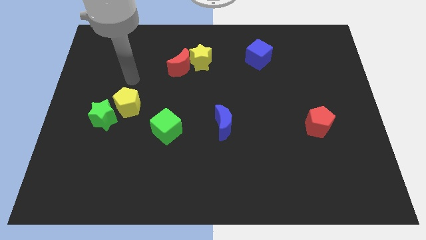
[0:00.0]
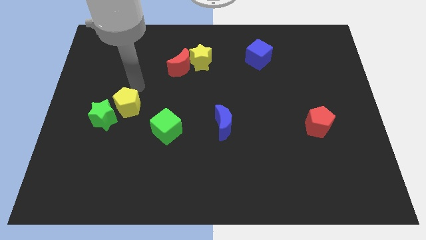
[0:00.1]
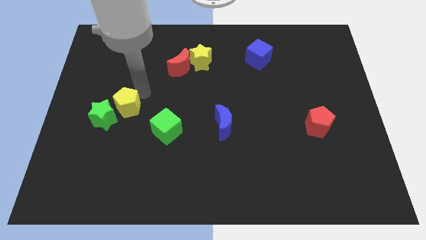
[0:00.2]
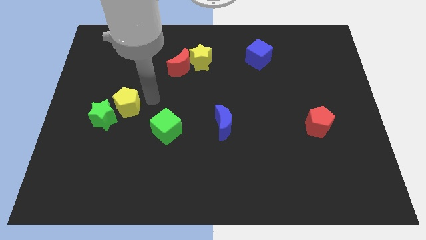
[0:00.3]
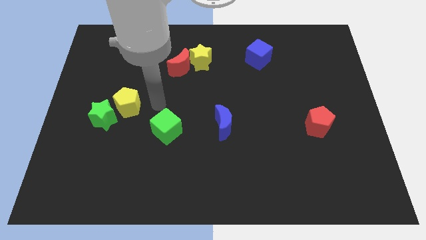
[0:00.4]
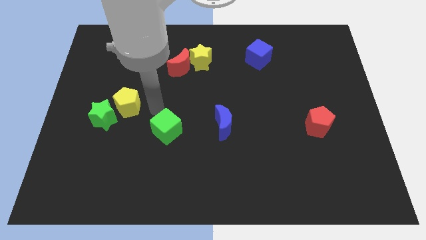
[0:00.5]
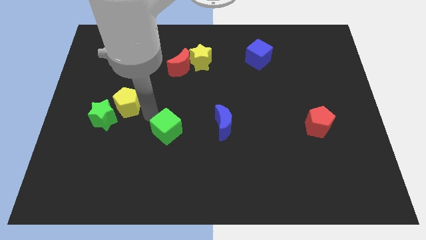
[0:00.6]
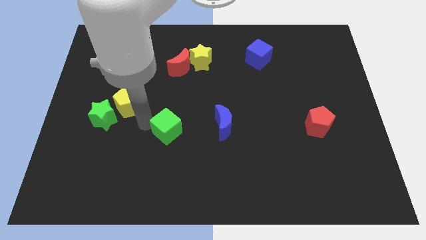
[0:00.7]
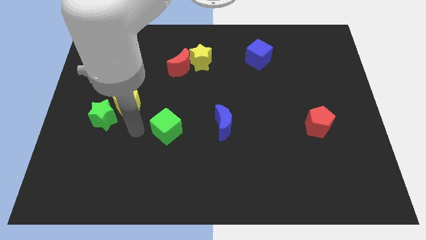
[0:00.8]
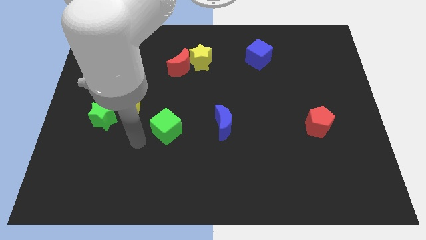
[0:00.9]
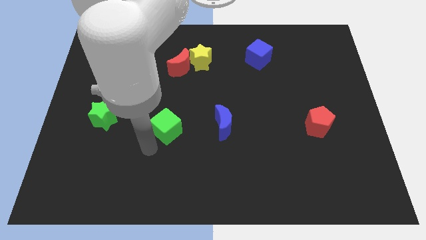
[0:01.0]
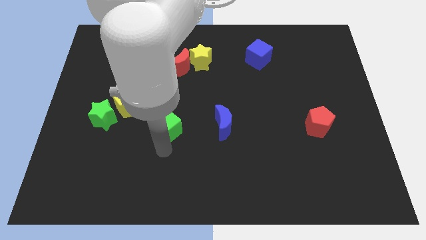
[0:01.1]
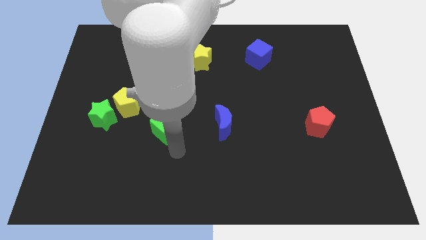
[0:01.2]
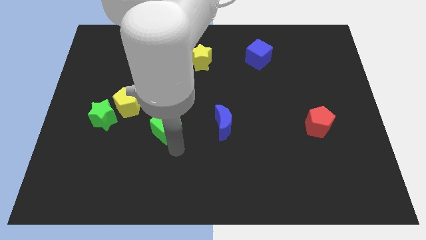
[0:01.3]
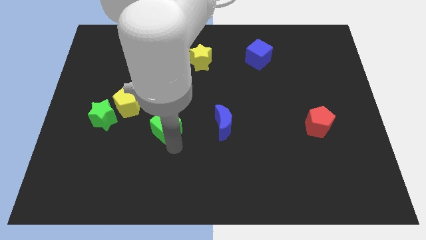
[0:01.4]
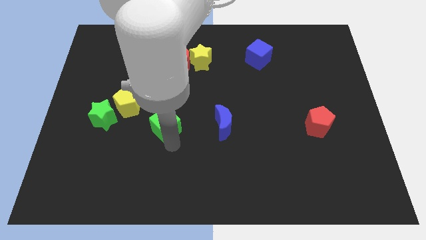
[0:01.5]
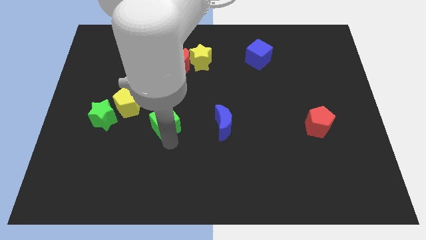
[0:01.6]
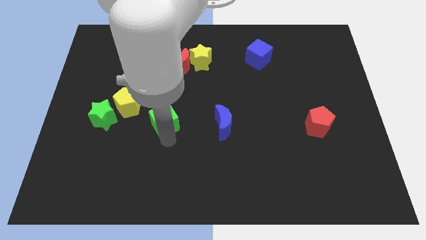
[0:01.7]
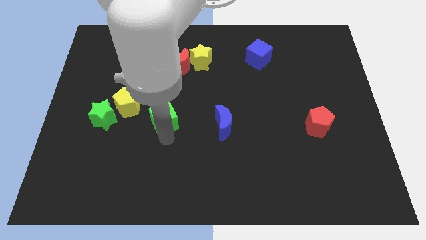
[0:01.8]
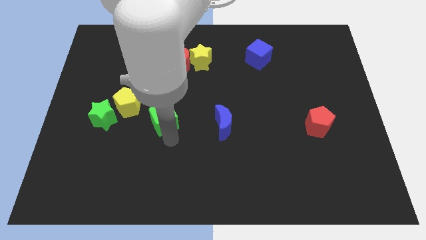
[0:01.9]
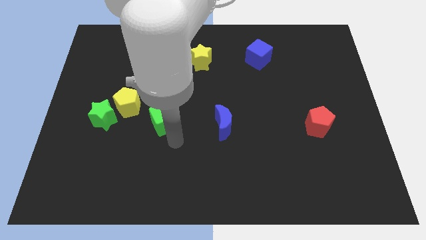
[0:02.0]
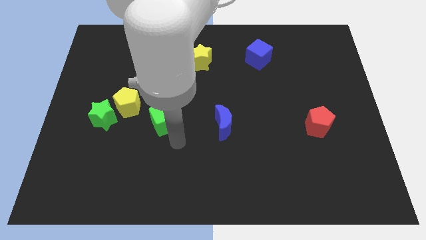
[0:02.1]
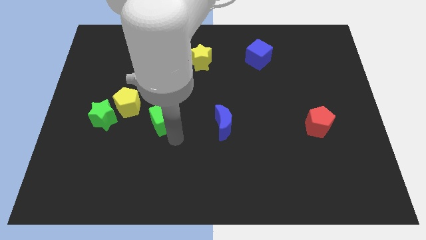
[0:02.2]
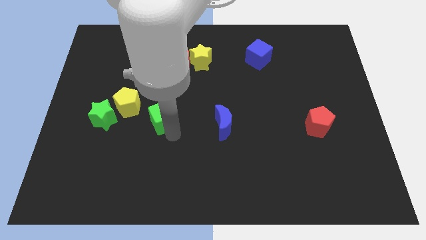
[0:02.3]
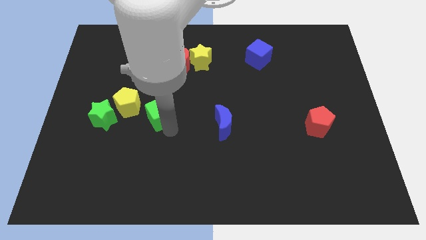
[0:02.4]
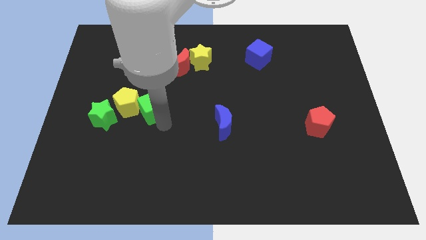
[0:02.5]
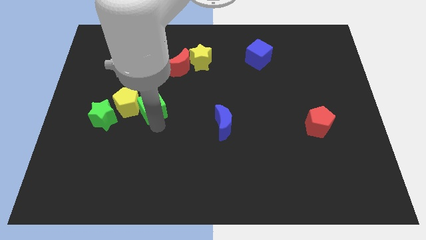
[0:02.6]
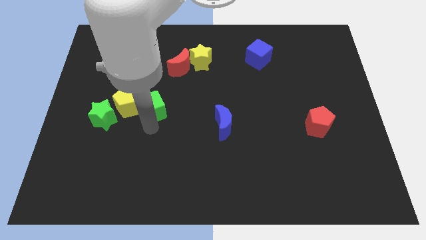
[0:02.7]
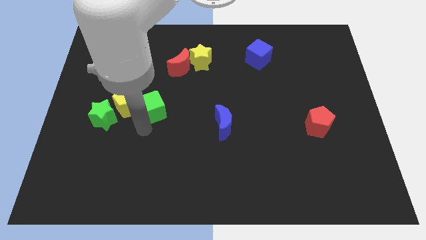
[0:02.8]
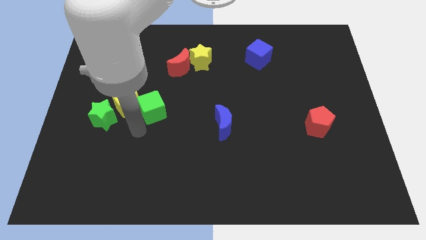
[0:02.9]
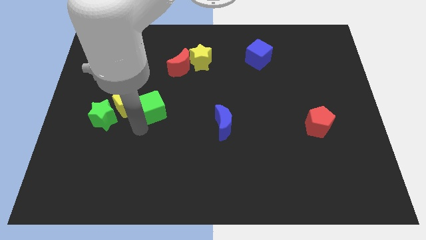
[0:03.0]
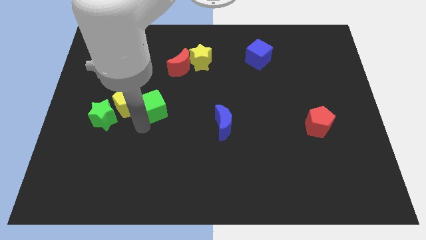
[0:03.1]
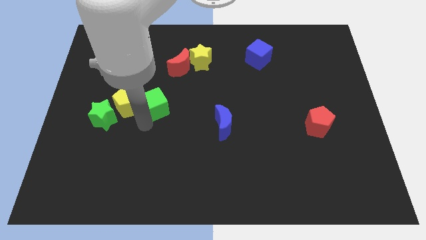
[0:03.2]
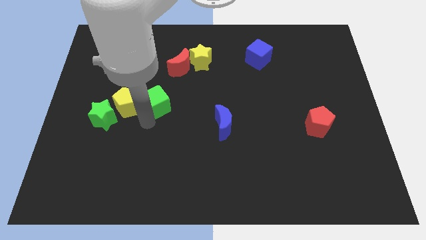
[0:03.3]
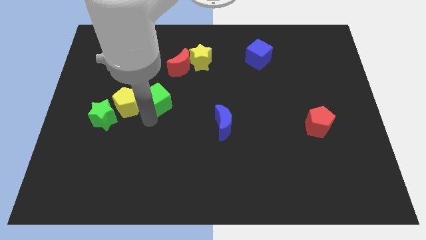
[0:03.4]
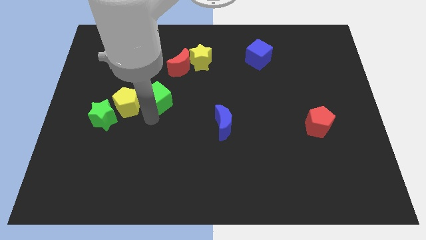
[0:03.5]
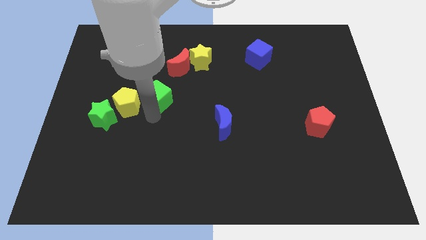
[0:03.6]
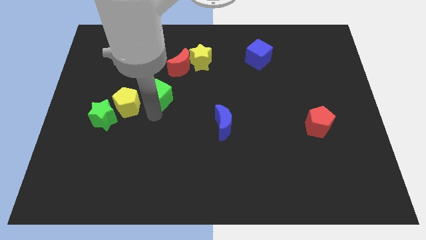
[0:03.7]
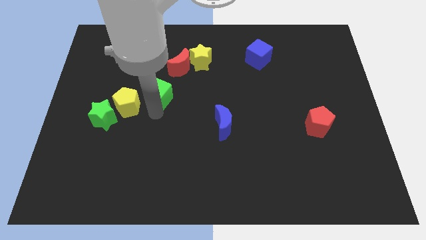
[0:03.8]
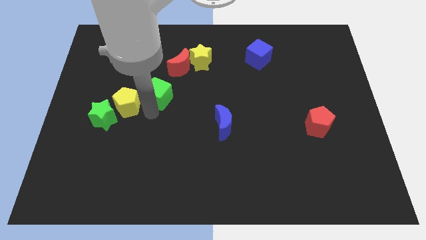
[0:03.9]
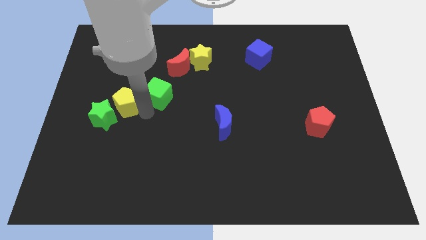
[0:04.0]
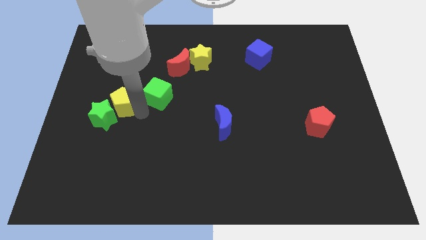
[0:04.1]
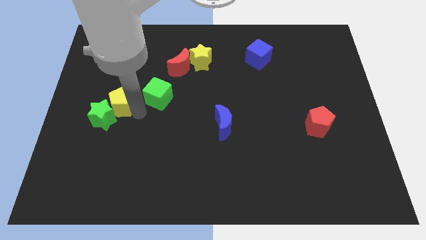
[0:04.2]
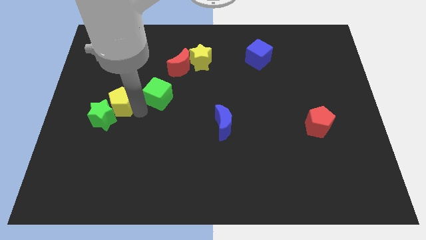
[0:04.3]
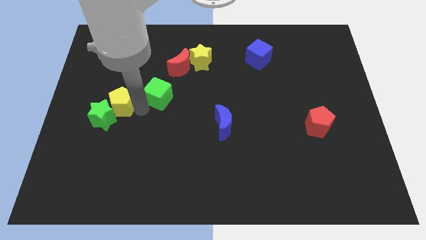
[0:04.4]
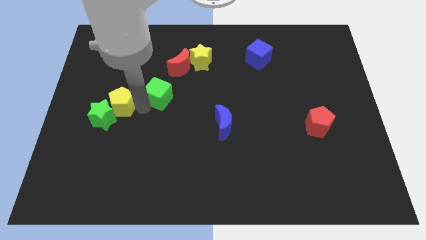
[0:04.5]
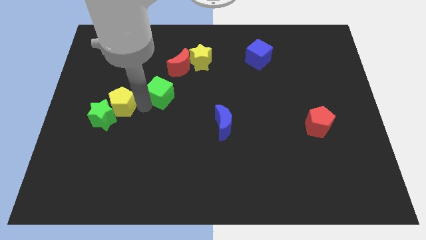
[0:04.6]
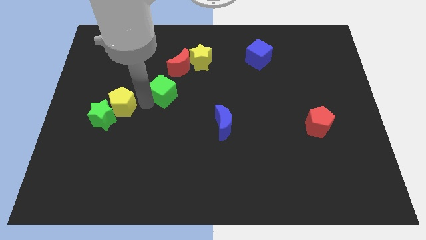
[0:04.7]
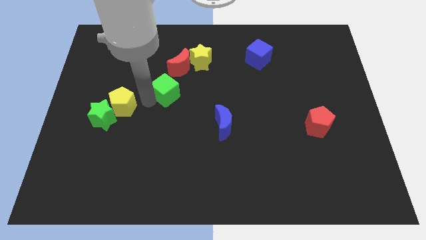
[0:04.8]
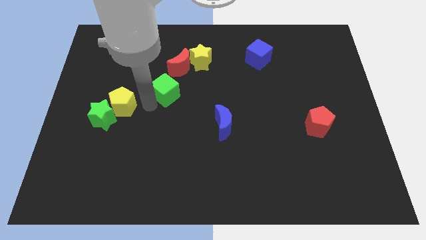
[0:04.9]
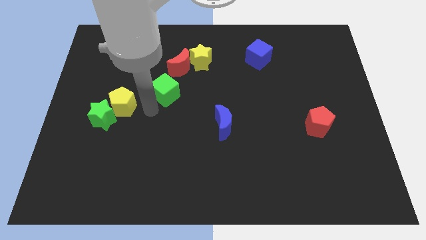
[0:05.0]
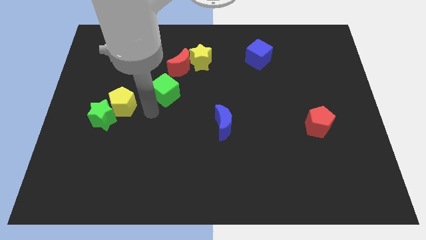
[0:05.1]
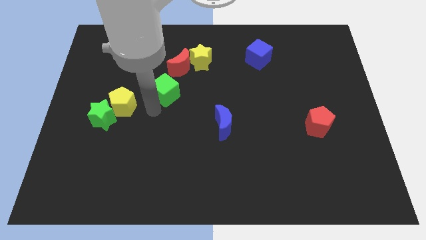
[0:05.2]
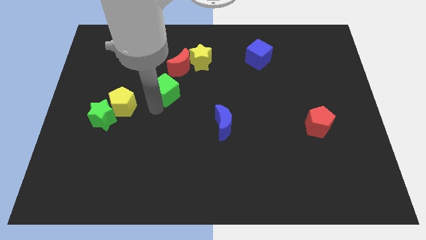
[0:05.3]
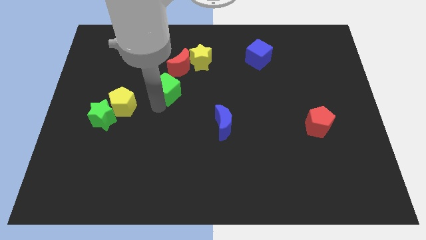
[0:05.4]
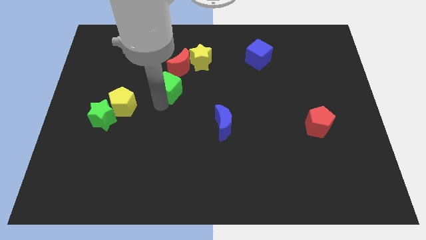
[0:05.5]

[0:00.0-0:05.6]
move the green cube to the bottom left side of the yellow star

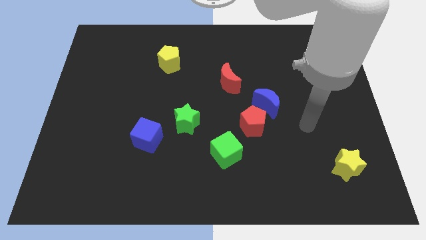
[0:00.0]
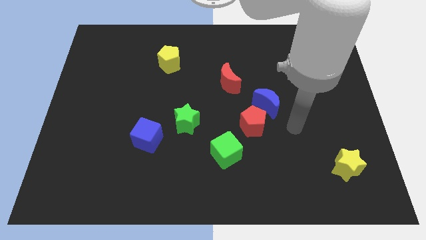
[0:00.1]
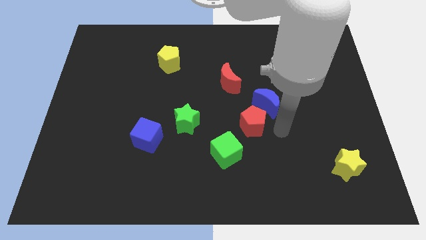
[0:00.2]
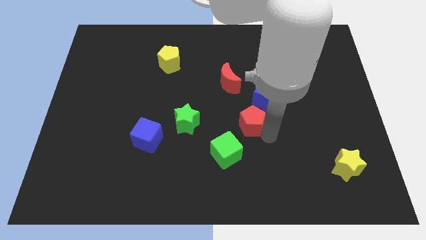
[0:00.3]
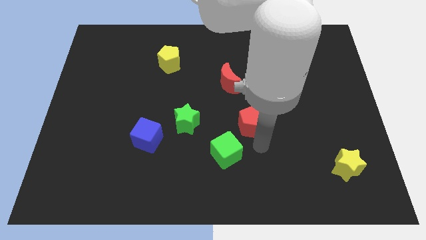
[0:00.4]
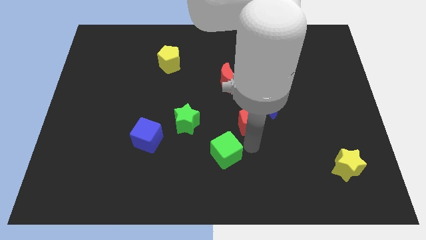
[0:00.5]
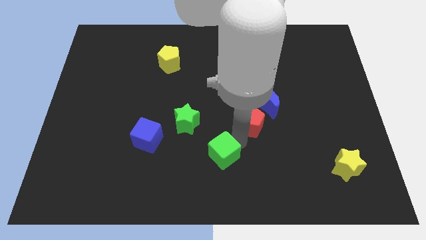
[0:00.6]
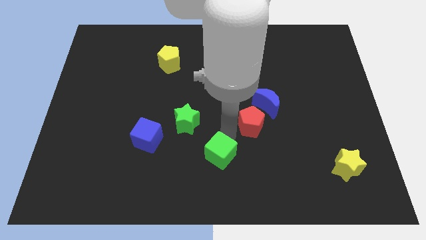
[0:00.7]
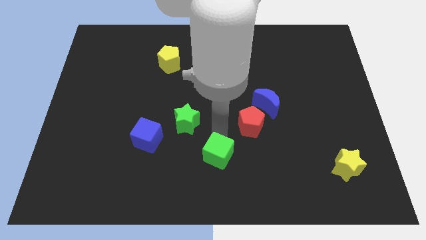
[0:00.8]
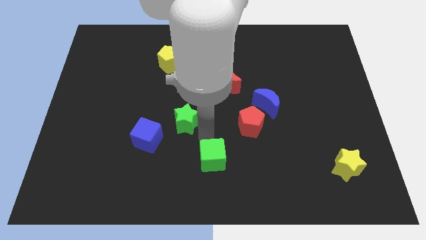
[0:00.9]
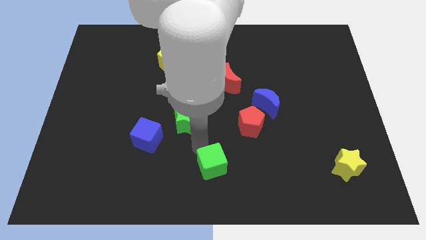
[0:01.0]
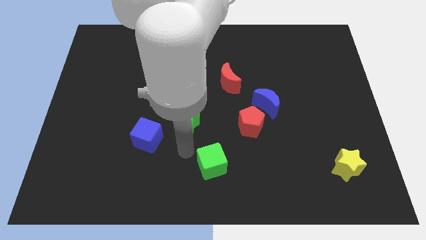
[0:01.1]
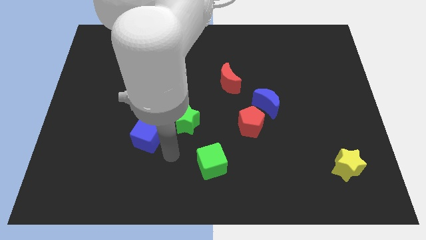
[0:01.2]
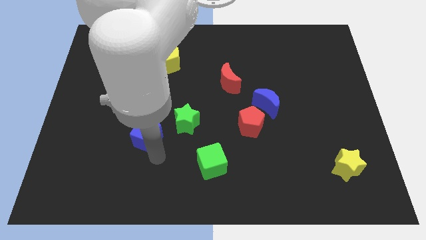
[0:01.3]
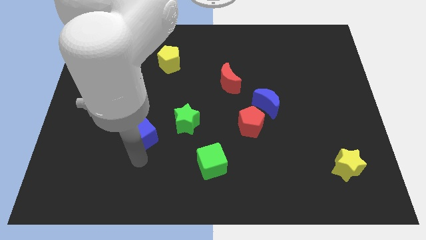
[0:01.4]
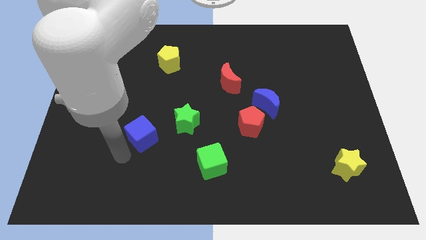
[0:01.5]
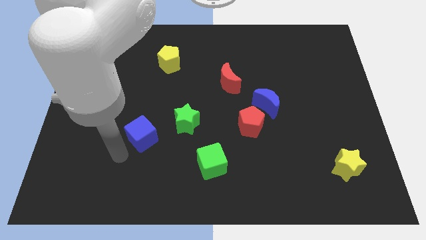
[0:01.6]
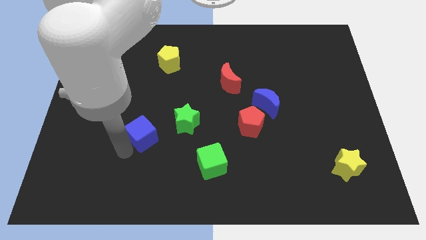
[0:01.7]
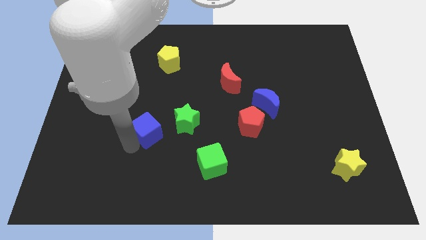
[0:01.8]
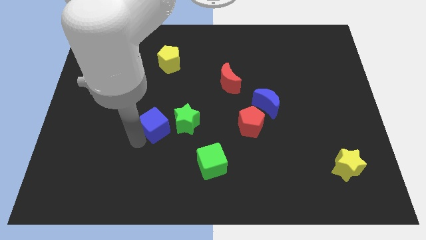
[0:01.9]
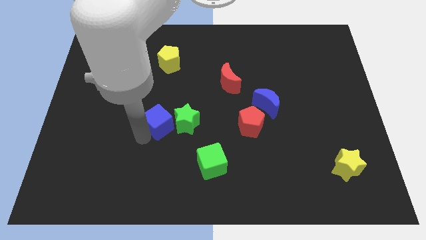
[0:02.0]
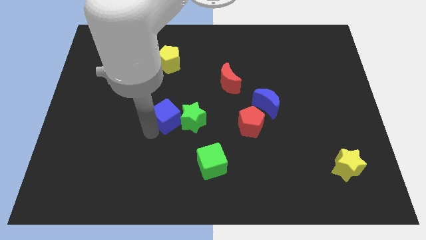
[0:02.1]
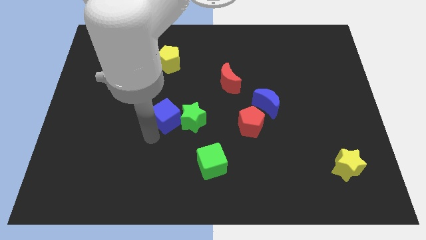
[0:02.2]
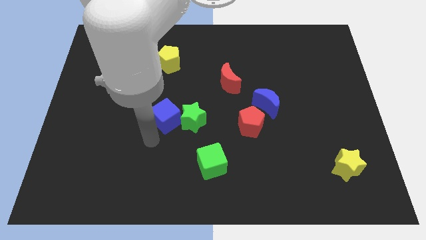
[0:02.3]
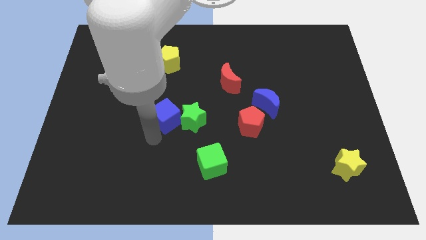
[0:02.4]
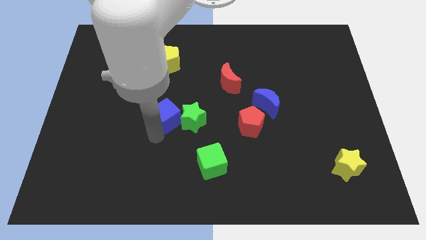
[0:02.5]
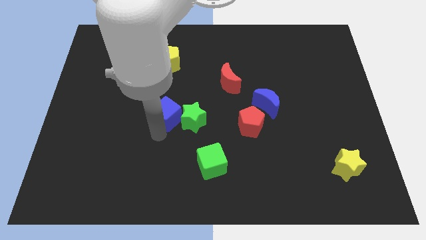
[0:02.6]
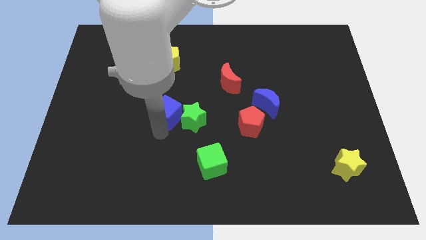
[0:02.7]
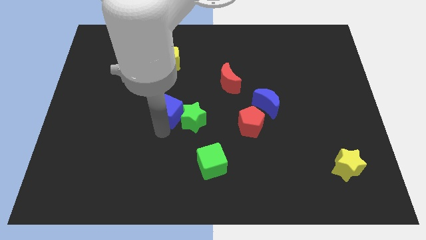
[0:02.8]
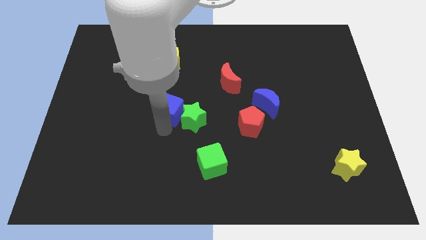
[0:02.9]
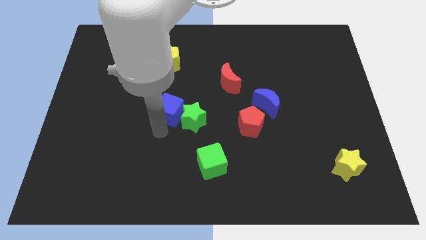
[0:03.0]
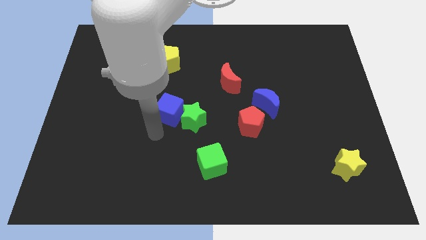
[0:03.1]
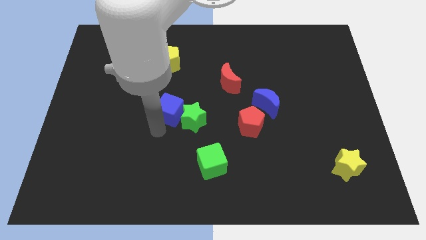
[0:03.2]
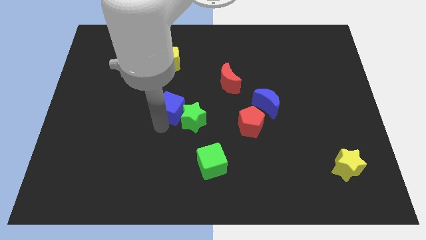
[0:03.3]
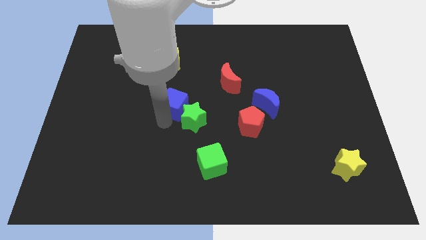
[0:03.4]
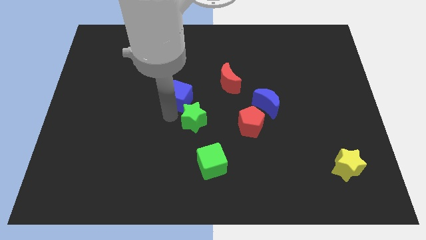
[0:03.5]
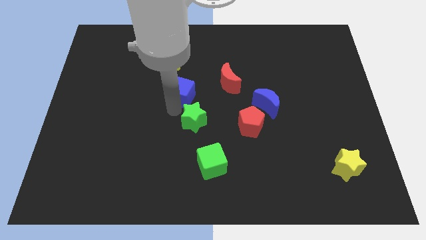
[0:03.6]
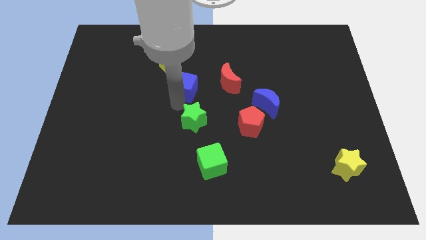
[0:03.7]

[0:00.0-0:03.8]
put the blue cube to the bottom right side of the yellow pentagon
